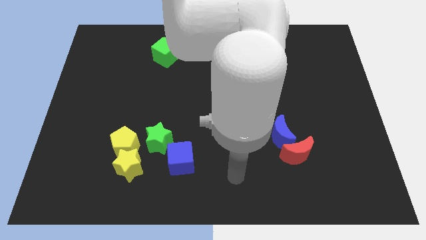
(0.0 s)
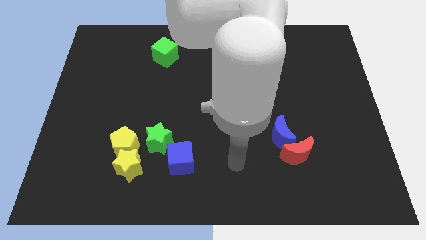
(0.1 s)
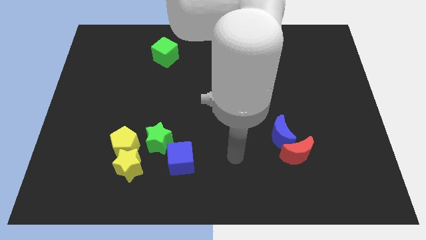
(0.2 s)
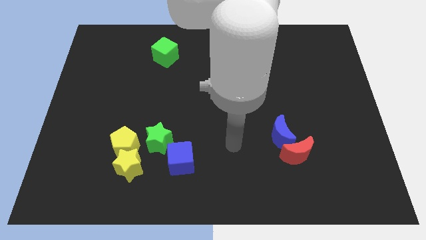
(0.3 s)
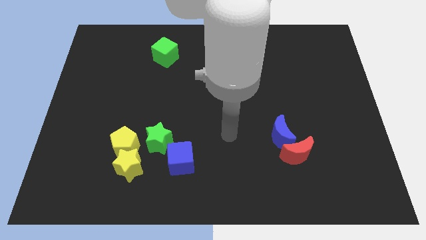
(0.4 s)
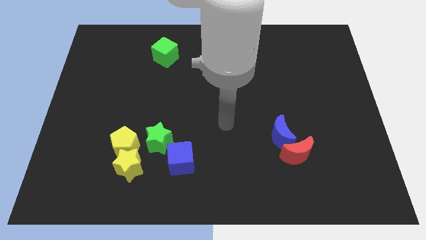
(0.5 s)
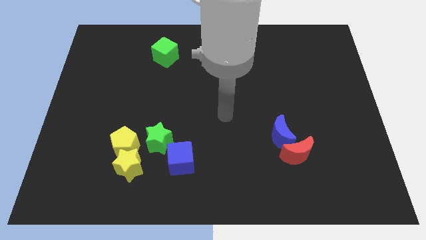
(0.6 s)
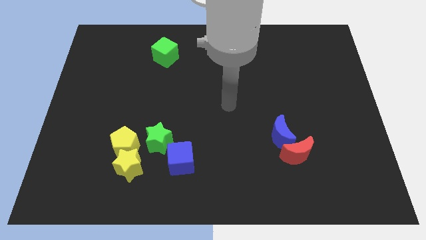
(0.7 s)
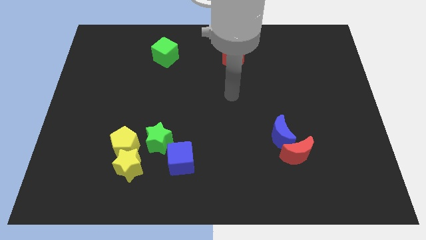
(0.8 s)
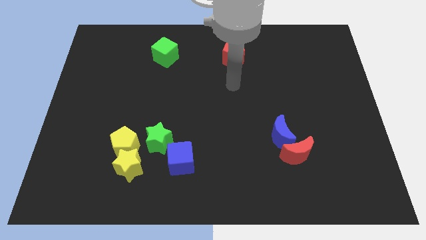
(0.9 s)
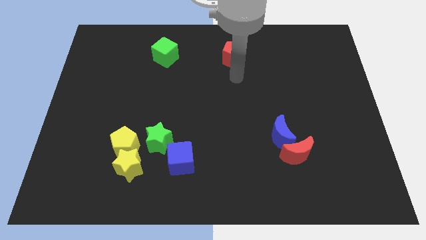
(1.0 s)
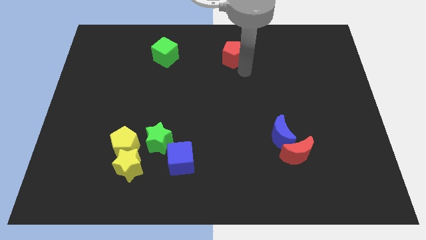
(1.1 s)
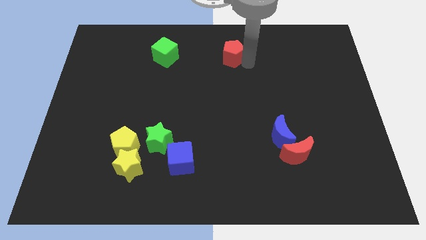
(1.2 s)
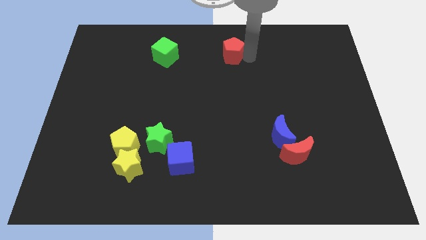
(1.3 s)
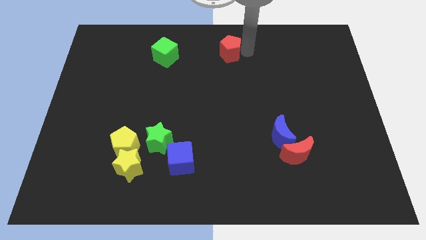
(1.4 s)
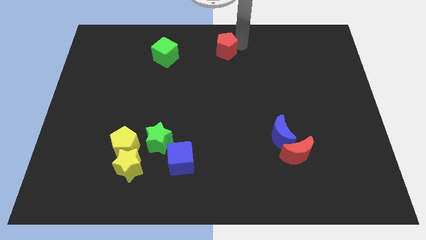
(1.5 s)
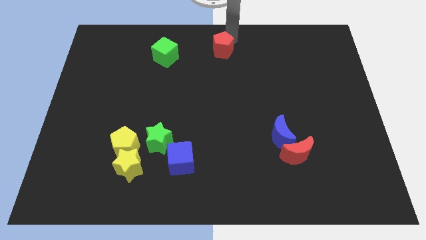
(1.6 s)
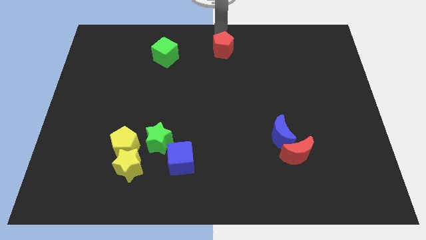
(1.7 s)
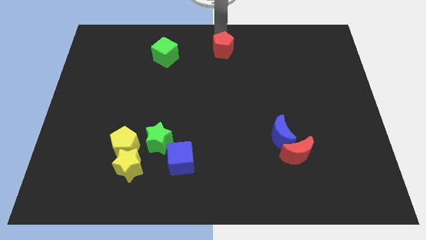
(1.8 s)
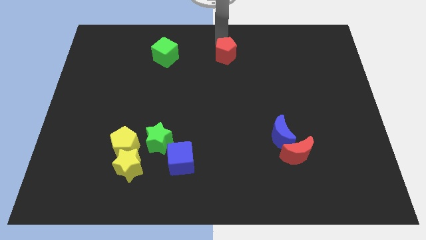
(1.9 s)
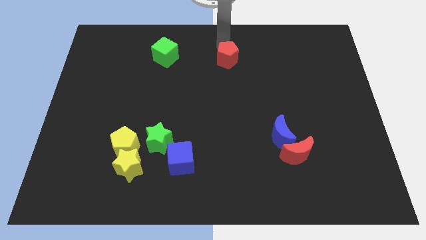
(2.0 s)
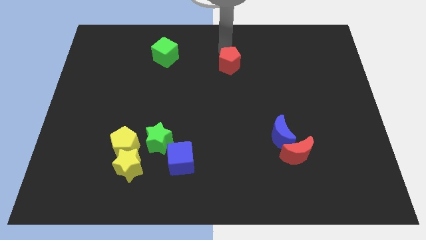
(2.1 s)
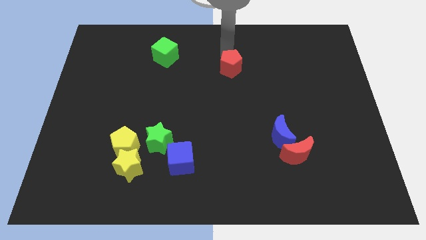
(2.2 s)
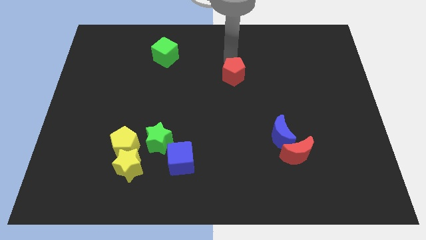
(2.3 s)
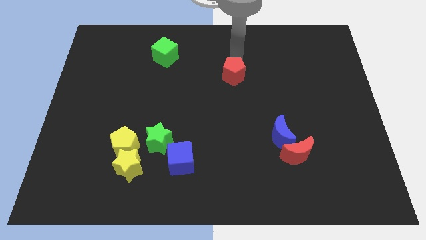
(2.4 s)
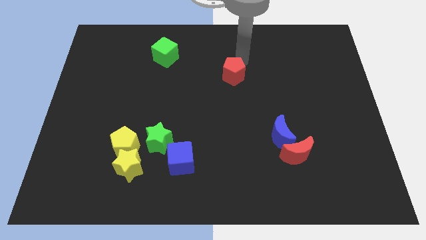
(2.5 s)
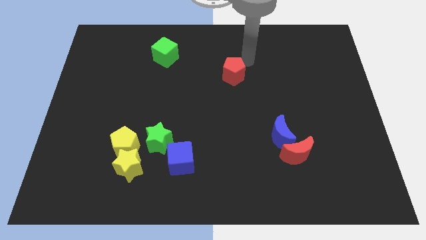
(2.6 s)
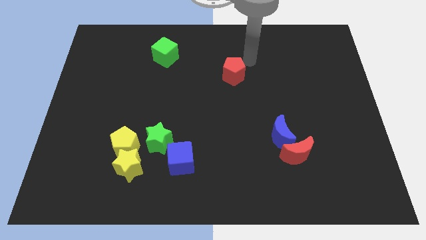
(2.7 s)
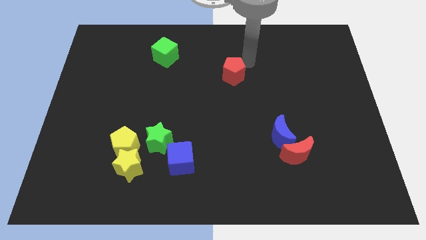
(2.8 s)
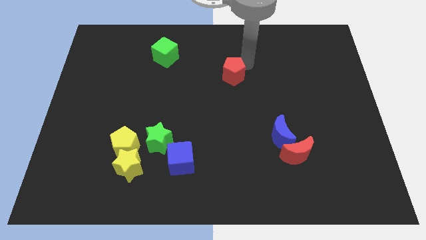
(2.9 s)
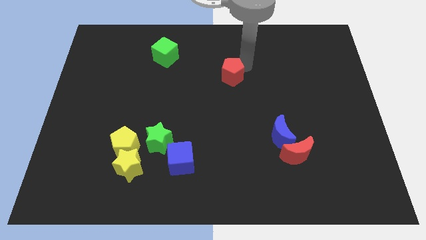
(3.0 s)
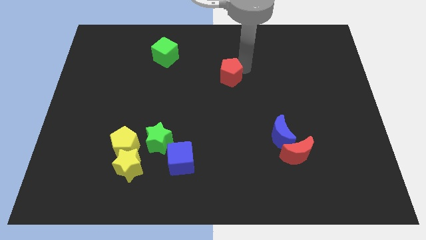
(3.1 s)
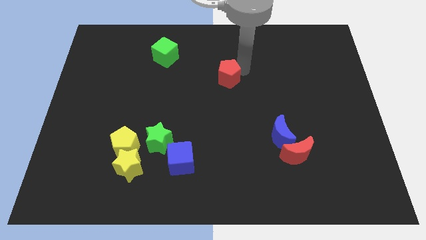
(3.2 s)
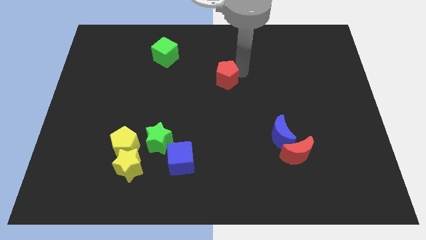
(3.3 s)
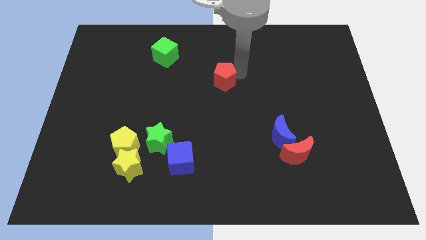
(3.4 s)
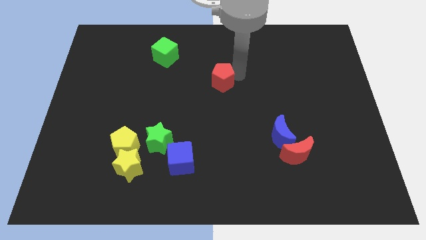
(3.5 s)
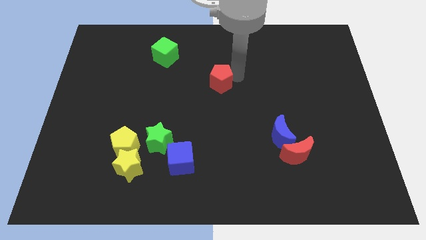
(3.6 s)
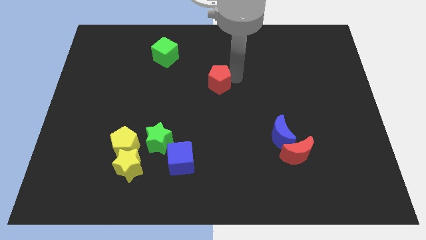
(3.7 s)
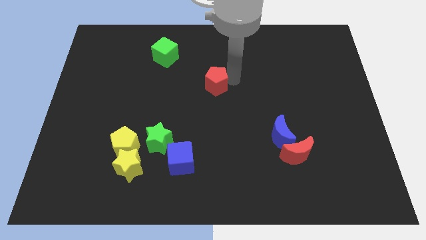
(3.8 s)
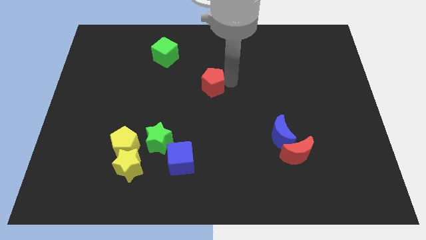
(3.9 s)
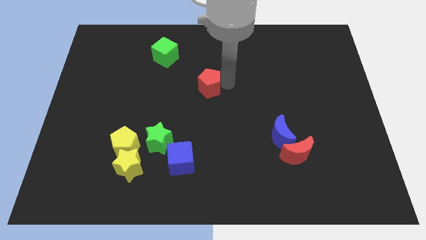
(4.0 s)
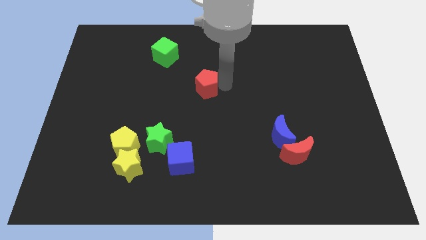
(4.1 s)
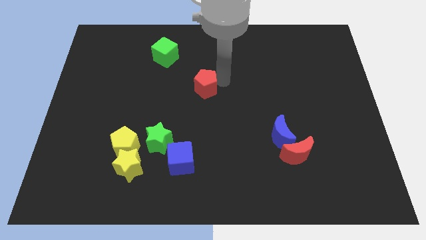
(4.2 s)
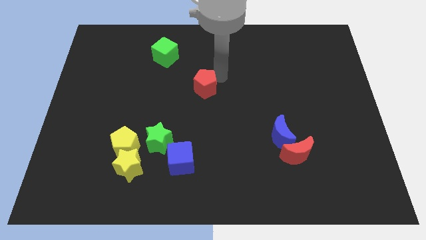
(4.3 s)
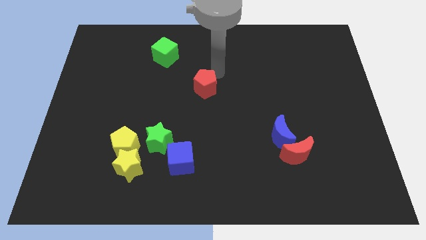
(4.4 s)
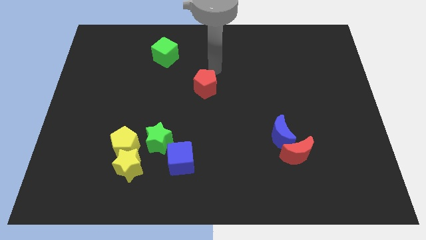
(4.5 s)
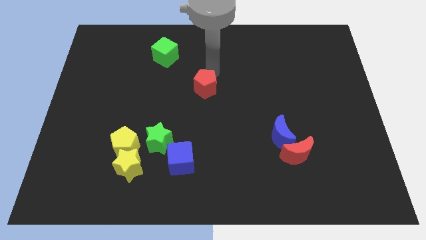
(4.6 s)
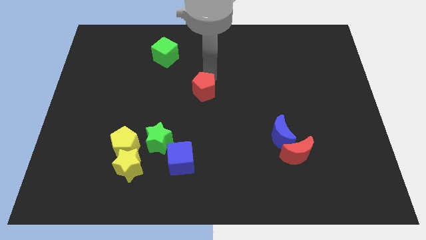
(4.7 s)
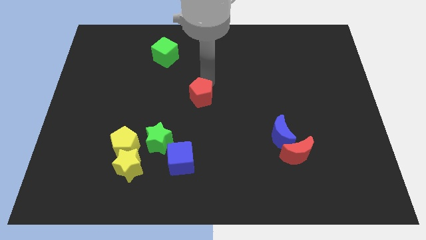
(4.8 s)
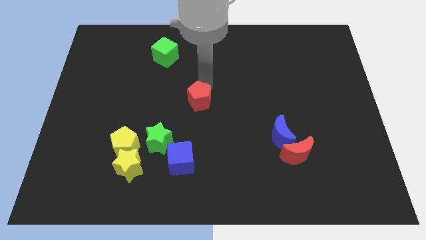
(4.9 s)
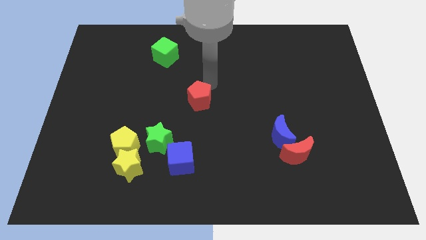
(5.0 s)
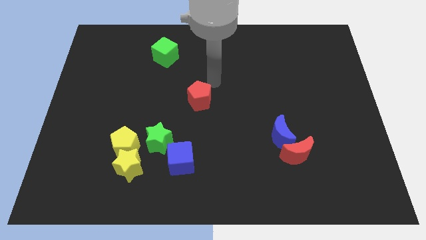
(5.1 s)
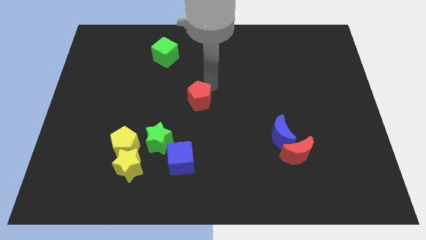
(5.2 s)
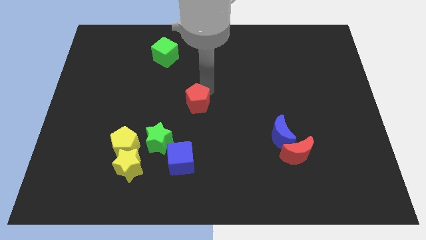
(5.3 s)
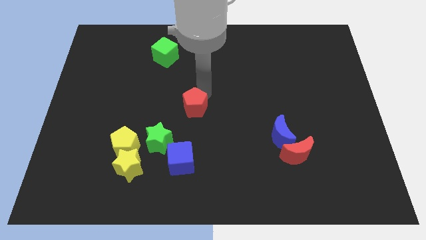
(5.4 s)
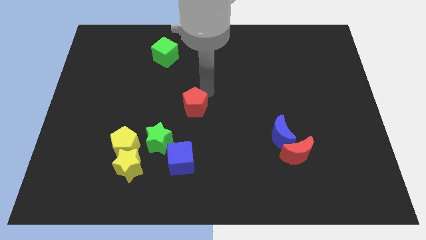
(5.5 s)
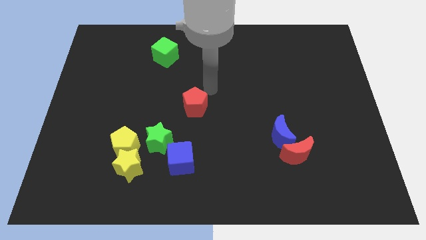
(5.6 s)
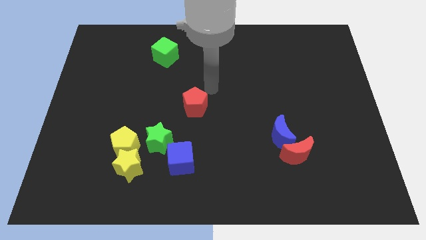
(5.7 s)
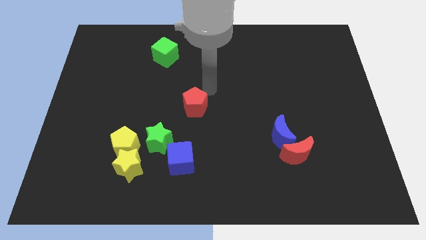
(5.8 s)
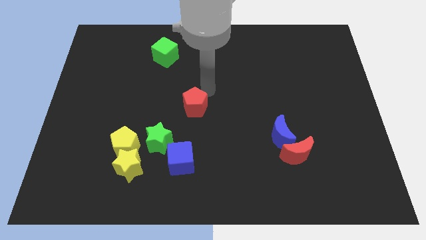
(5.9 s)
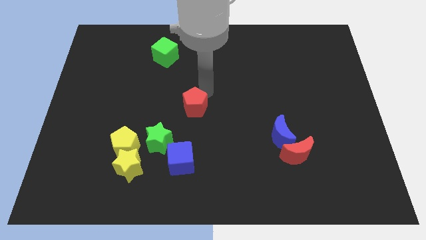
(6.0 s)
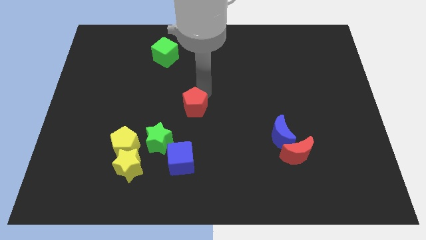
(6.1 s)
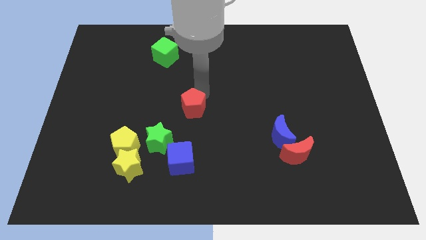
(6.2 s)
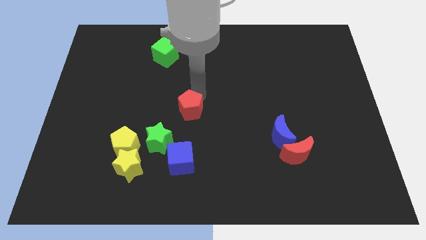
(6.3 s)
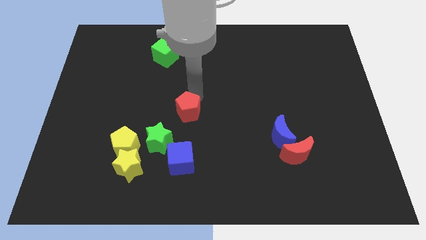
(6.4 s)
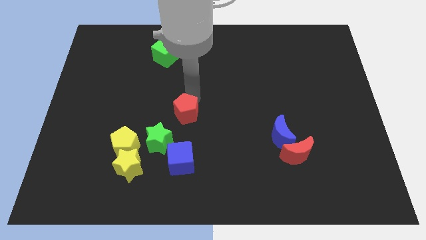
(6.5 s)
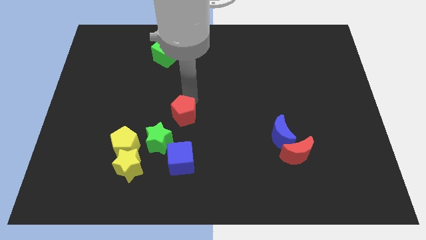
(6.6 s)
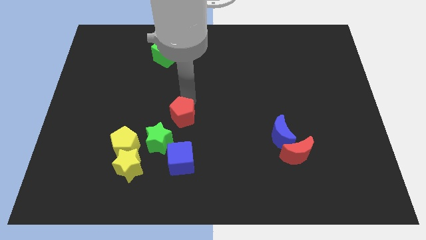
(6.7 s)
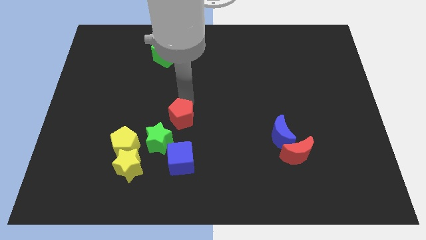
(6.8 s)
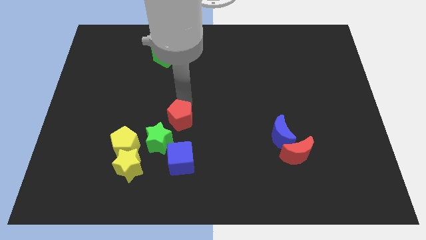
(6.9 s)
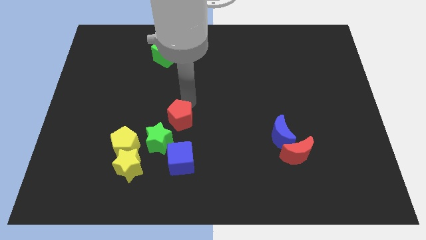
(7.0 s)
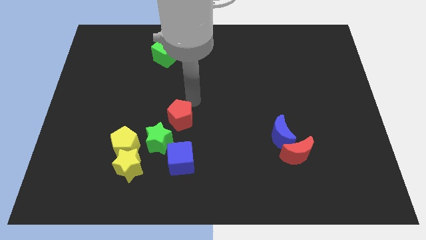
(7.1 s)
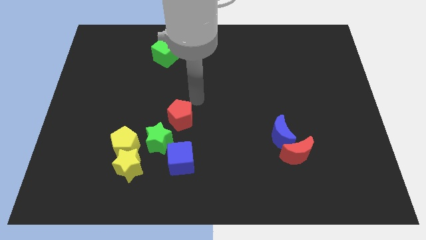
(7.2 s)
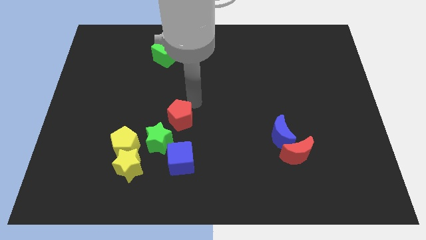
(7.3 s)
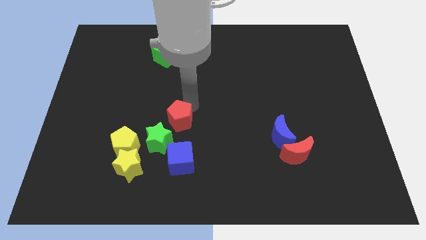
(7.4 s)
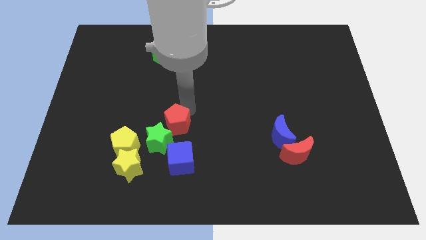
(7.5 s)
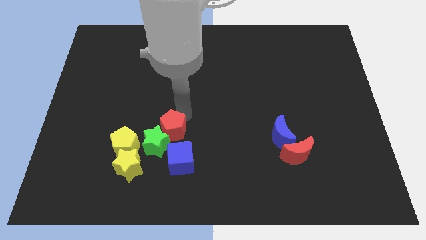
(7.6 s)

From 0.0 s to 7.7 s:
slide the red pentagon to the green star
